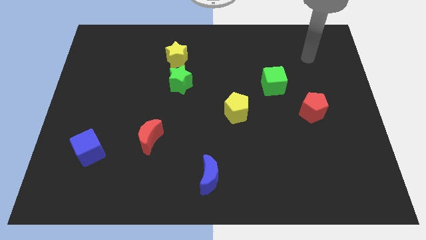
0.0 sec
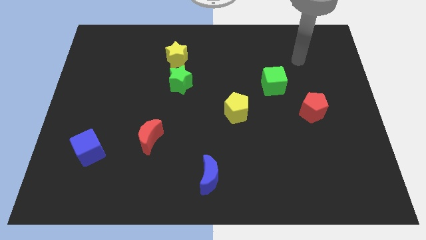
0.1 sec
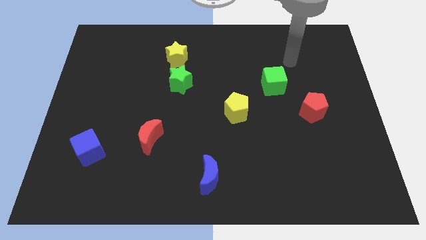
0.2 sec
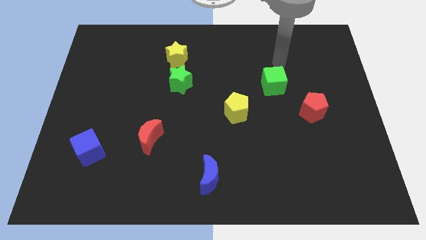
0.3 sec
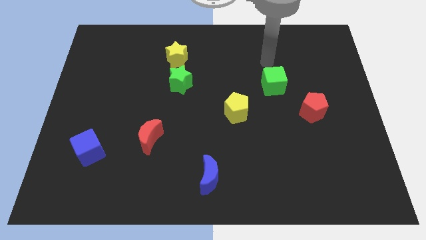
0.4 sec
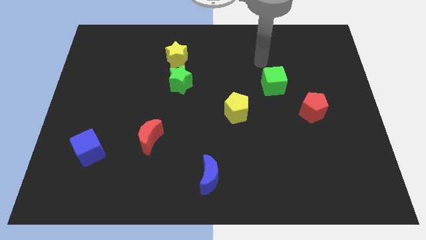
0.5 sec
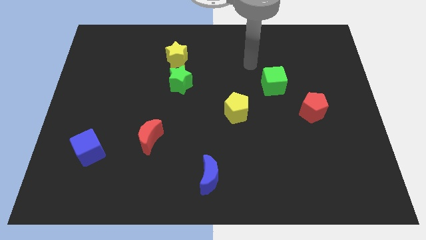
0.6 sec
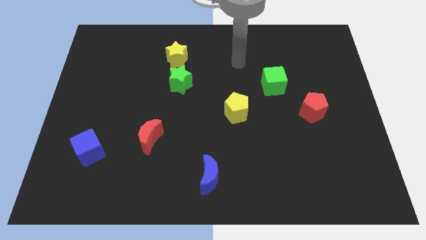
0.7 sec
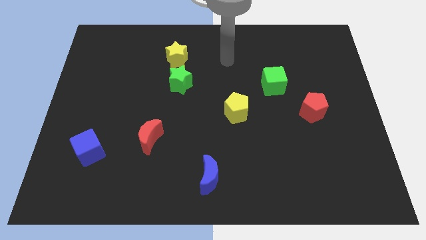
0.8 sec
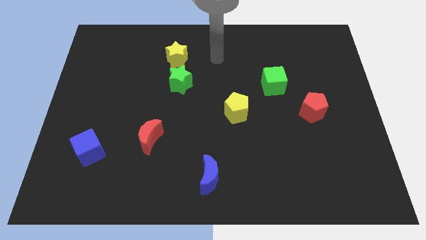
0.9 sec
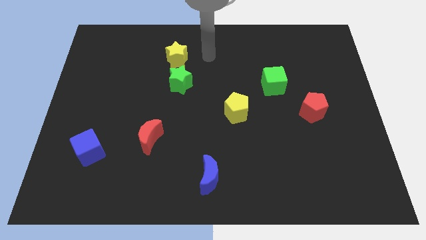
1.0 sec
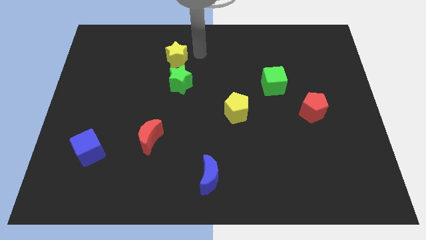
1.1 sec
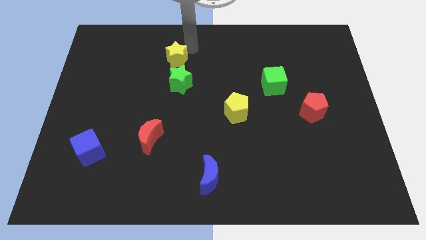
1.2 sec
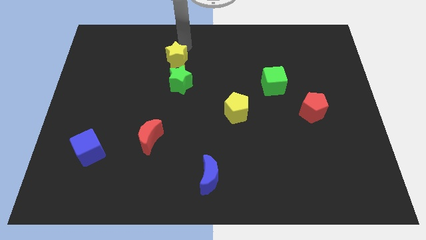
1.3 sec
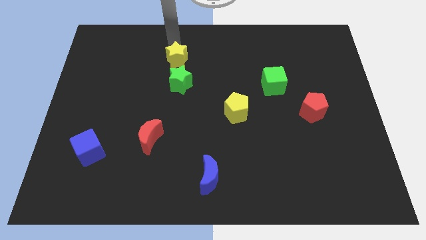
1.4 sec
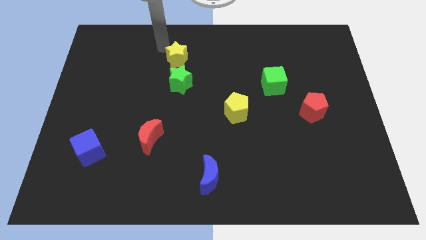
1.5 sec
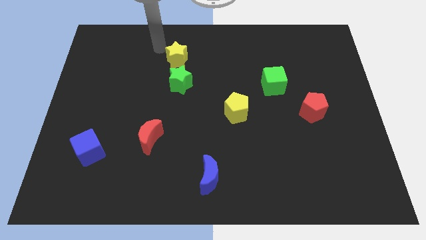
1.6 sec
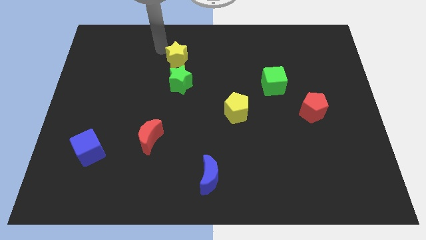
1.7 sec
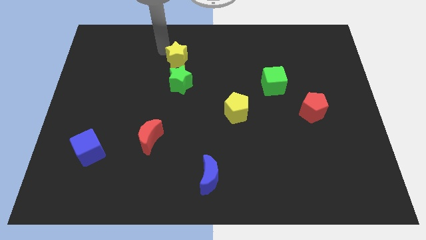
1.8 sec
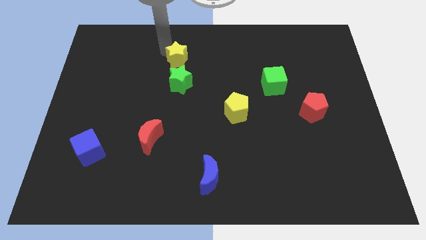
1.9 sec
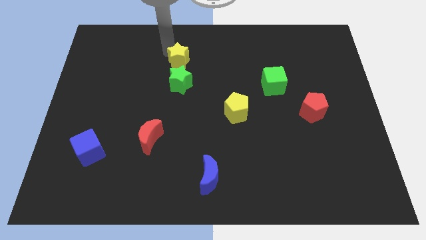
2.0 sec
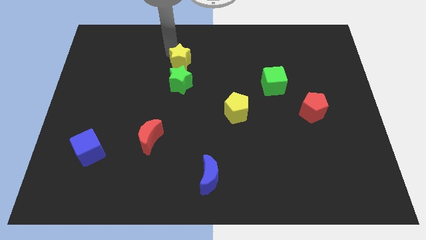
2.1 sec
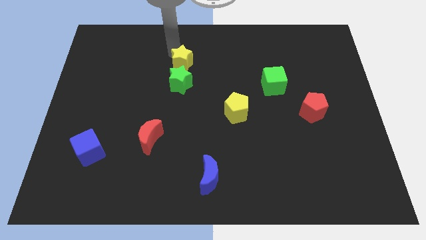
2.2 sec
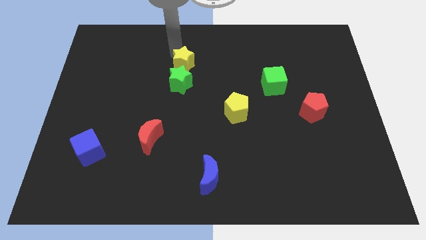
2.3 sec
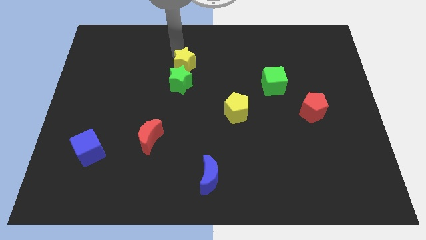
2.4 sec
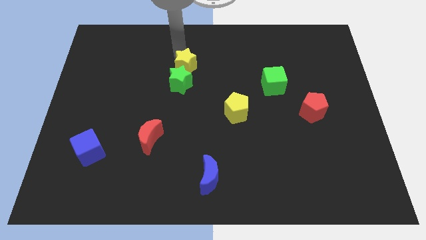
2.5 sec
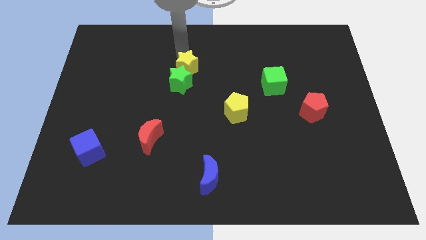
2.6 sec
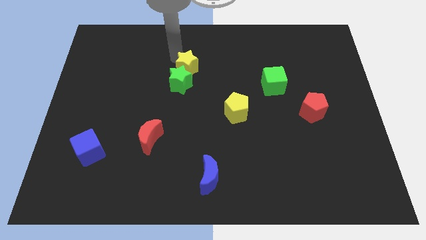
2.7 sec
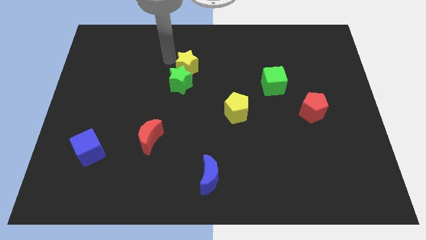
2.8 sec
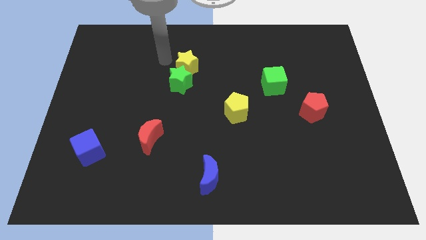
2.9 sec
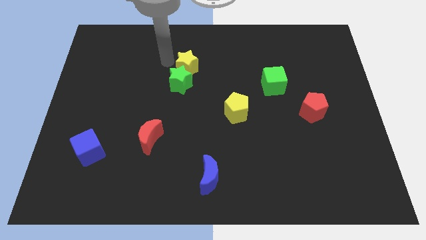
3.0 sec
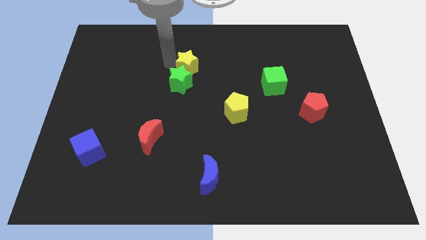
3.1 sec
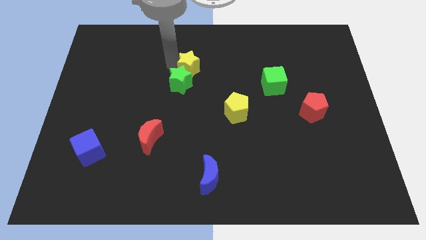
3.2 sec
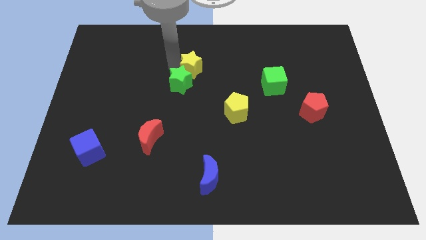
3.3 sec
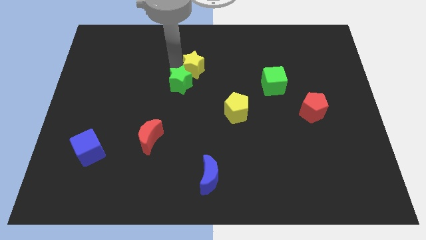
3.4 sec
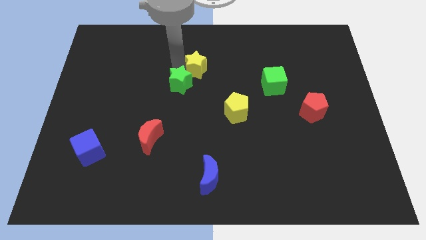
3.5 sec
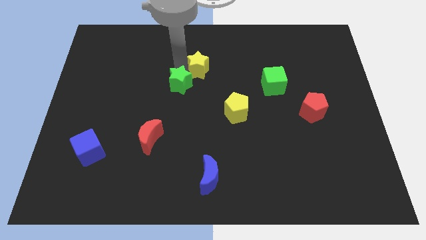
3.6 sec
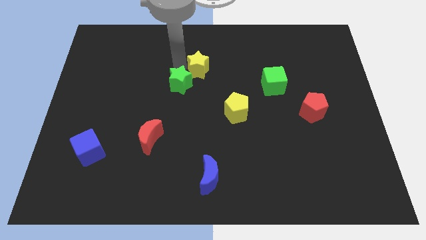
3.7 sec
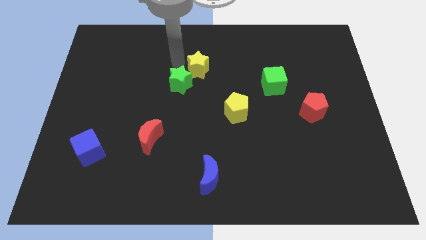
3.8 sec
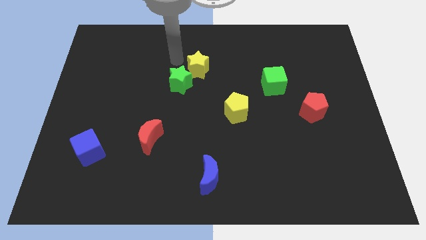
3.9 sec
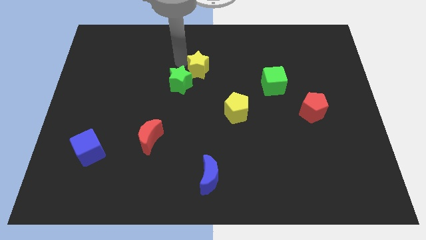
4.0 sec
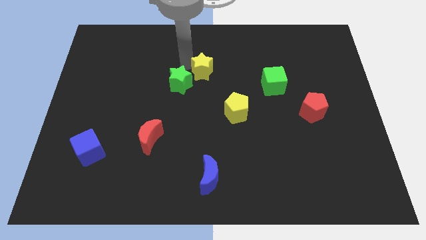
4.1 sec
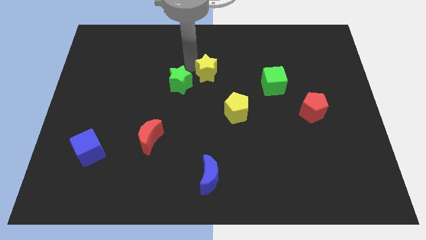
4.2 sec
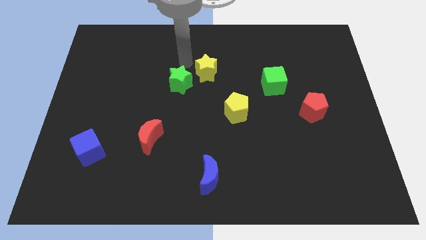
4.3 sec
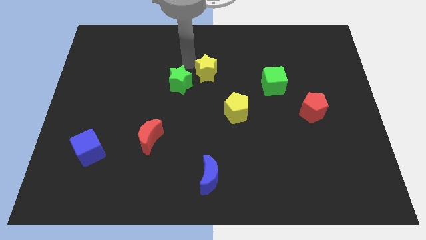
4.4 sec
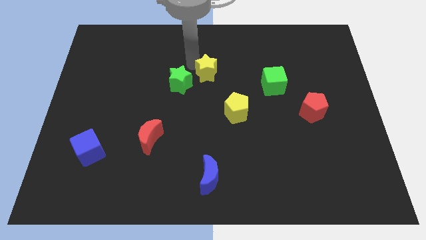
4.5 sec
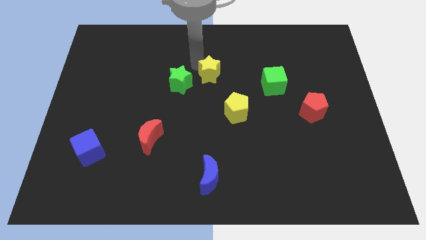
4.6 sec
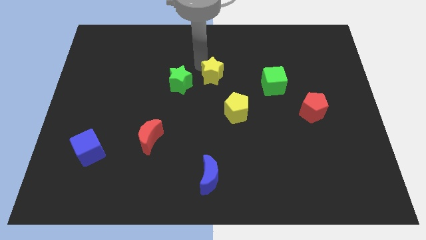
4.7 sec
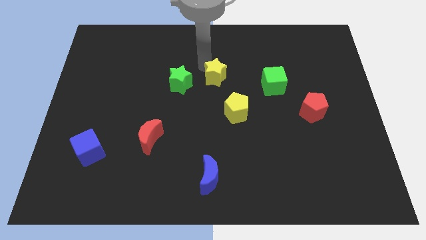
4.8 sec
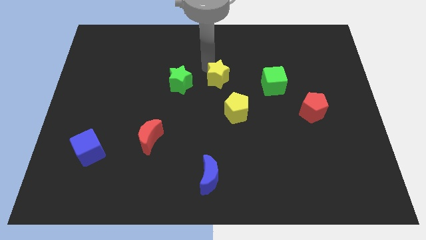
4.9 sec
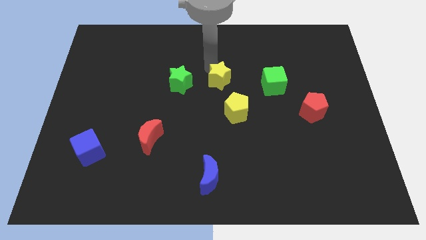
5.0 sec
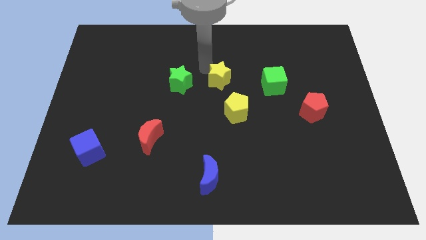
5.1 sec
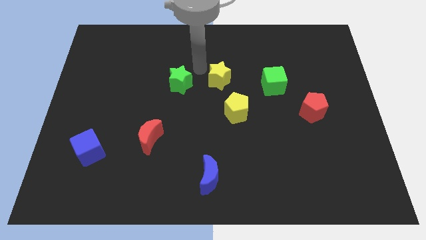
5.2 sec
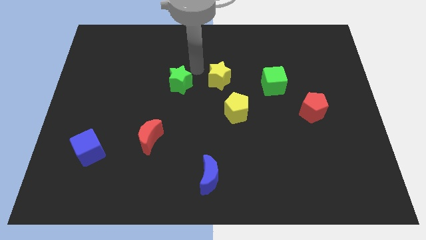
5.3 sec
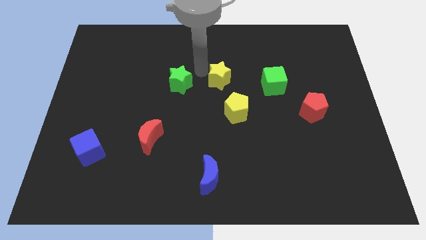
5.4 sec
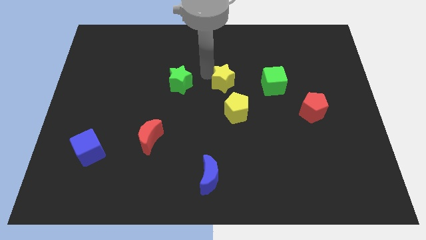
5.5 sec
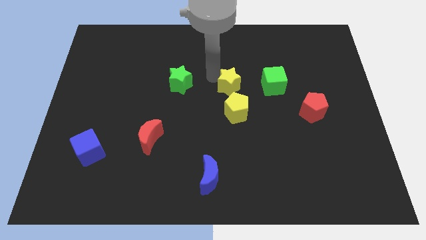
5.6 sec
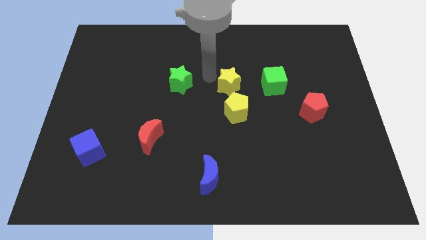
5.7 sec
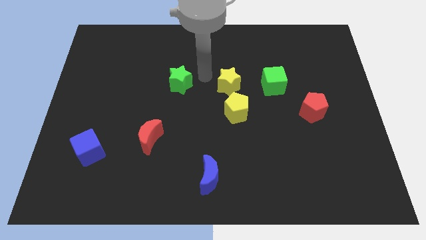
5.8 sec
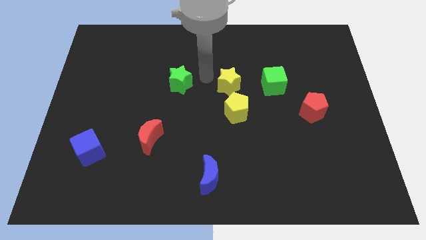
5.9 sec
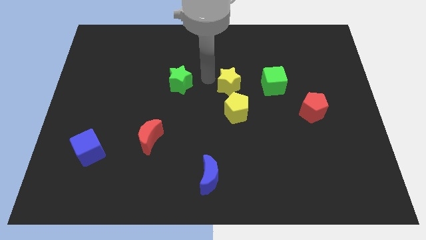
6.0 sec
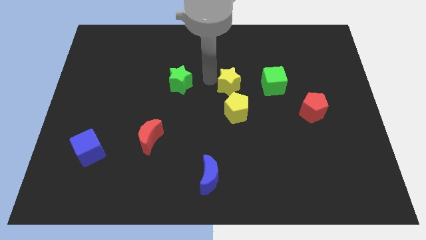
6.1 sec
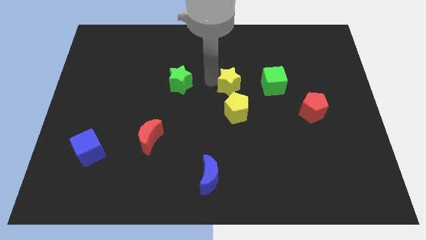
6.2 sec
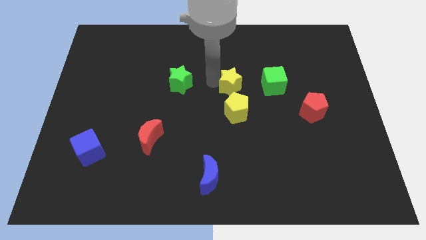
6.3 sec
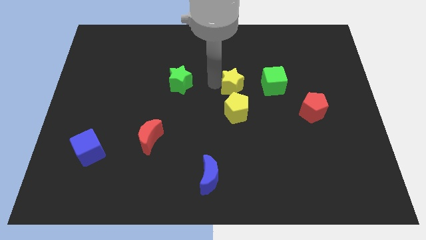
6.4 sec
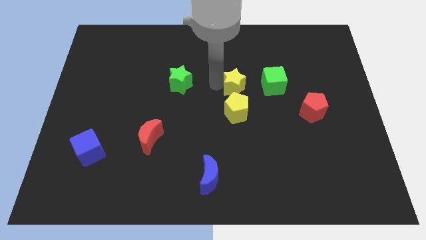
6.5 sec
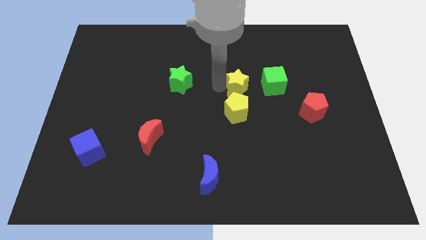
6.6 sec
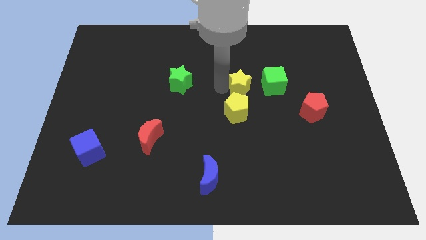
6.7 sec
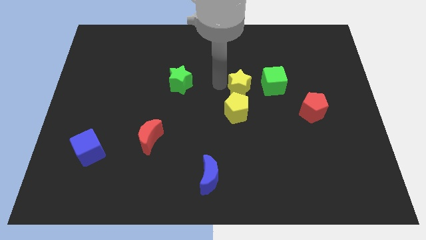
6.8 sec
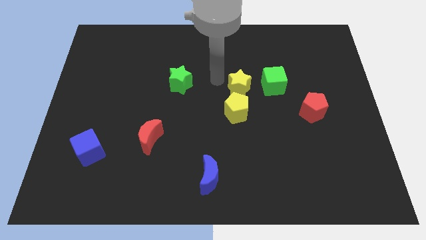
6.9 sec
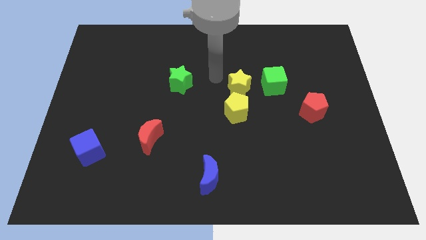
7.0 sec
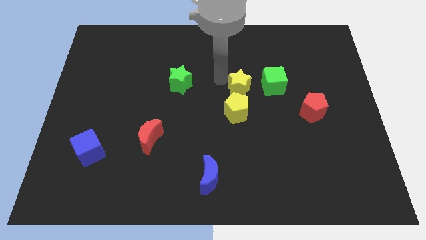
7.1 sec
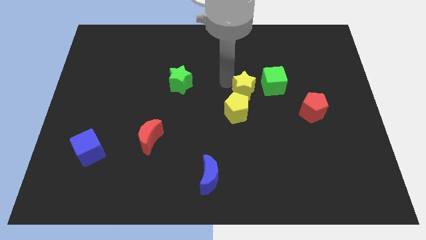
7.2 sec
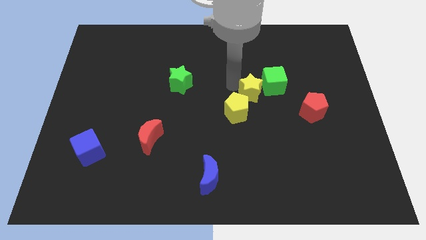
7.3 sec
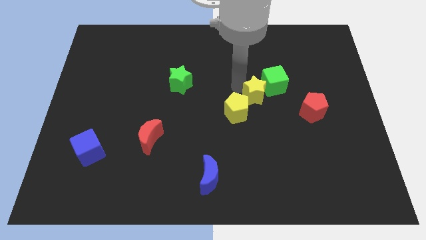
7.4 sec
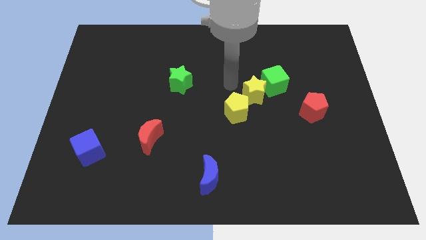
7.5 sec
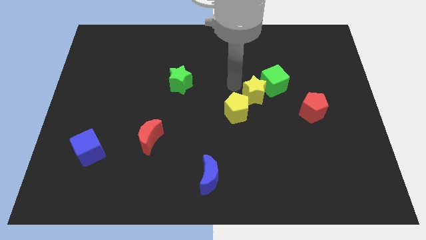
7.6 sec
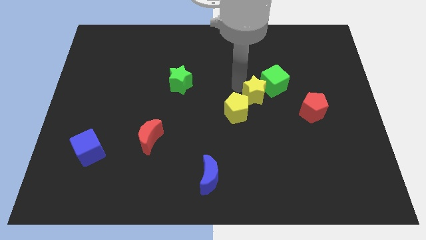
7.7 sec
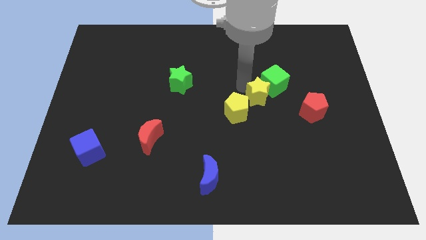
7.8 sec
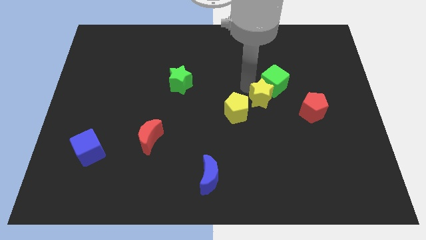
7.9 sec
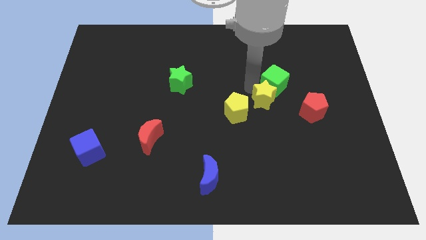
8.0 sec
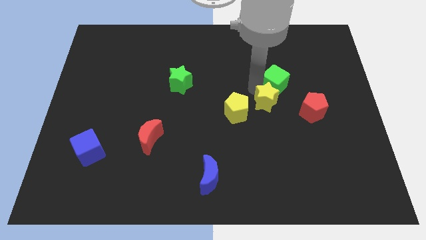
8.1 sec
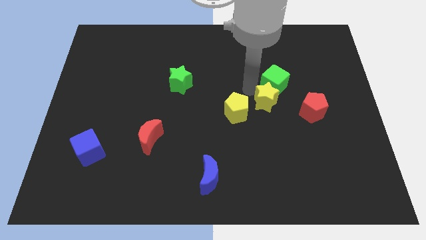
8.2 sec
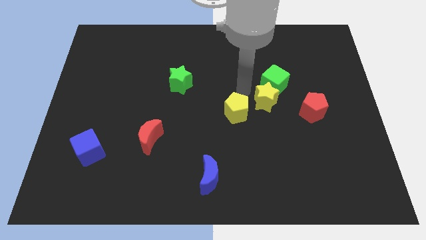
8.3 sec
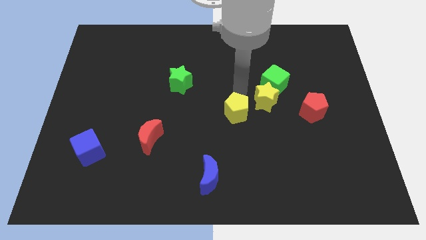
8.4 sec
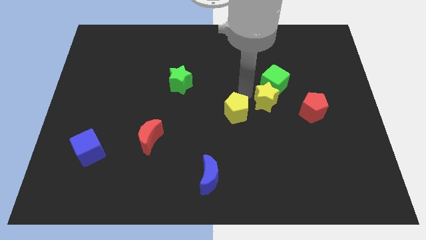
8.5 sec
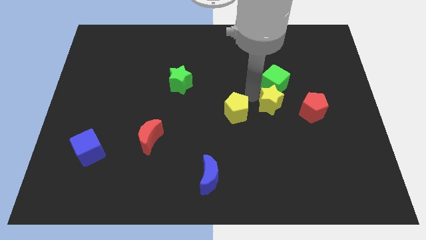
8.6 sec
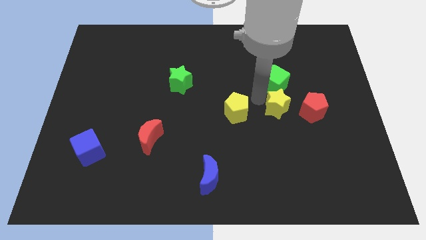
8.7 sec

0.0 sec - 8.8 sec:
put the yellow star to the top left side of the red pentagon
